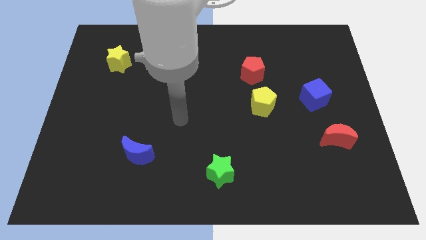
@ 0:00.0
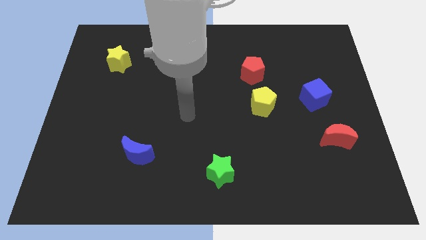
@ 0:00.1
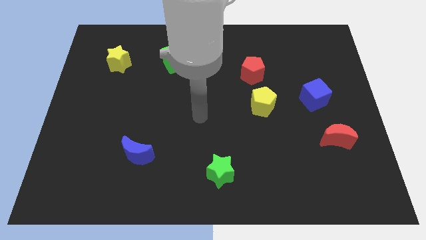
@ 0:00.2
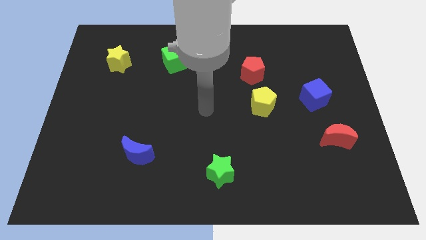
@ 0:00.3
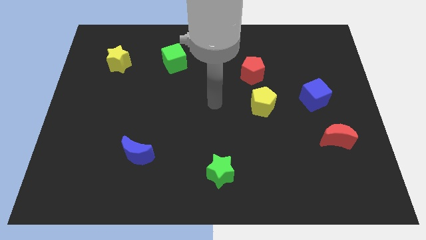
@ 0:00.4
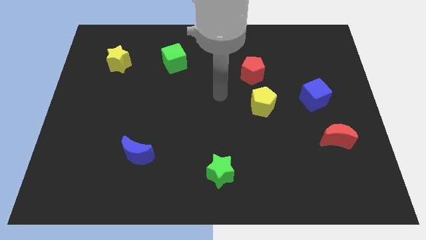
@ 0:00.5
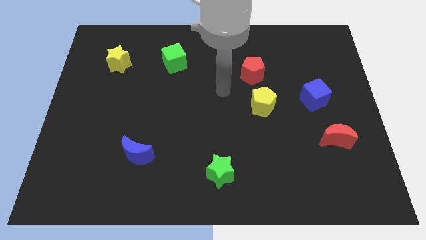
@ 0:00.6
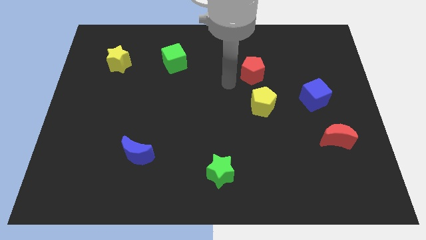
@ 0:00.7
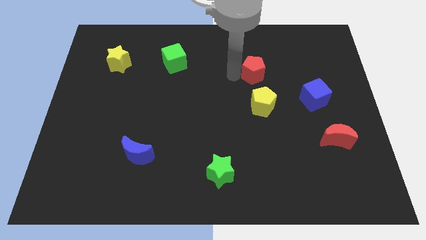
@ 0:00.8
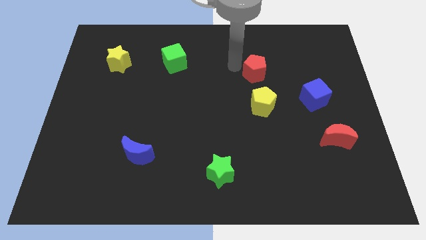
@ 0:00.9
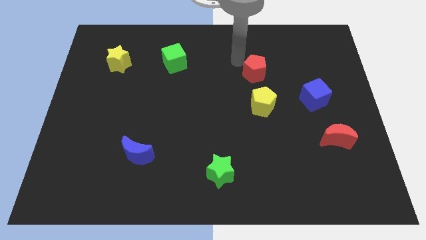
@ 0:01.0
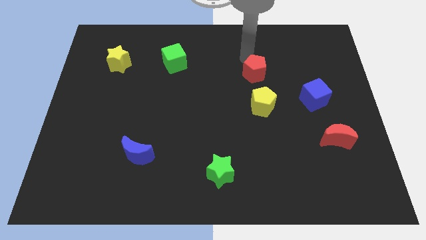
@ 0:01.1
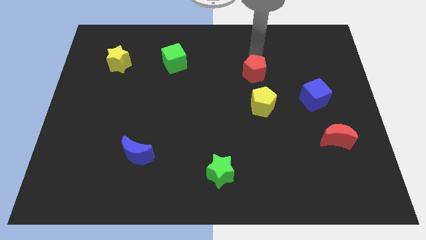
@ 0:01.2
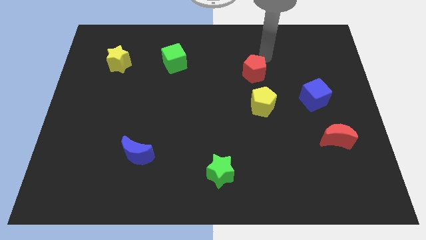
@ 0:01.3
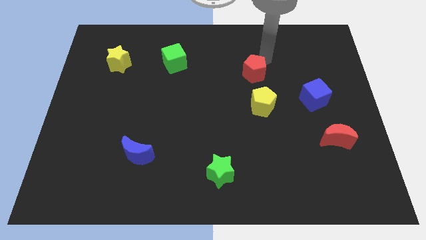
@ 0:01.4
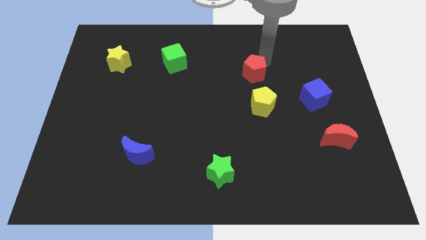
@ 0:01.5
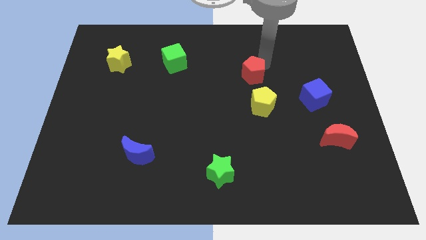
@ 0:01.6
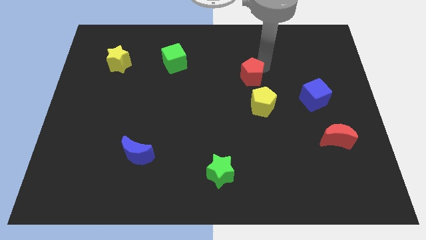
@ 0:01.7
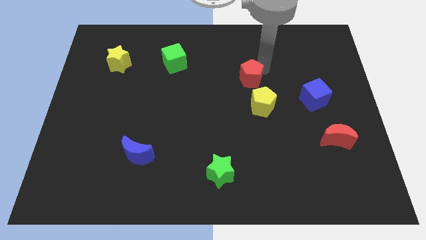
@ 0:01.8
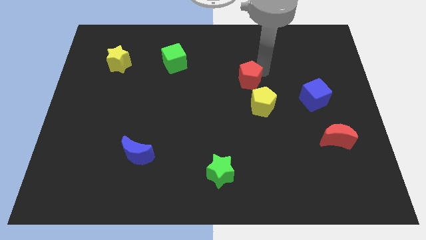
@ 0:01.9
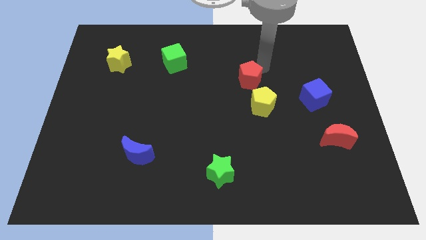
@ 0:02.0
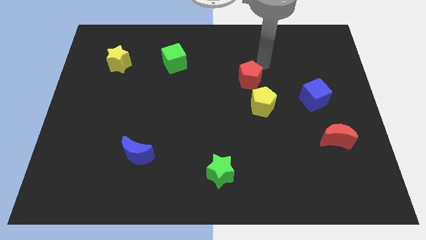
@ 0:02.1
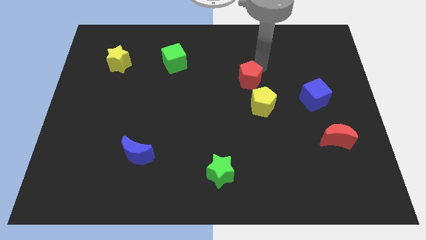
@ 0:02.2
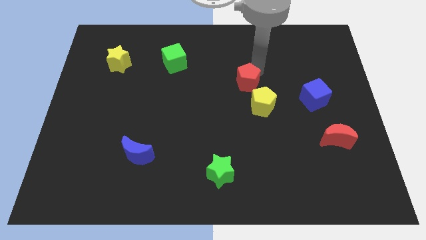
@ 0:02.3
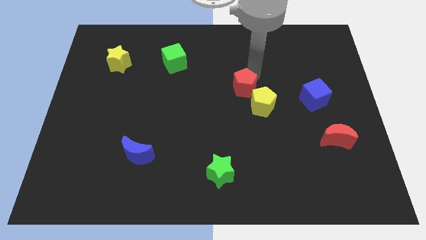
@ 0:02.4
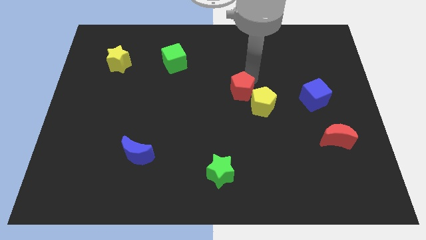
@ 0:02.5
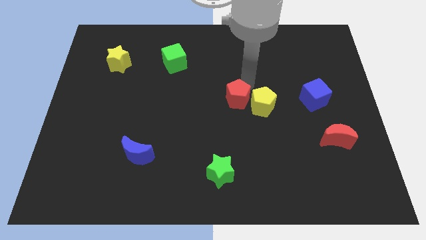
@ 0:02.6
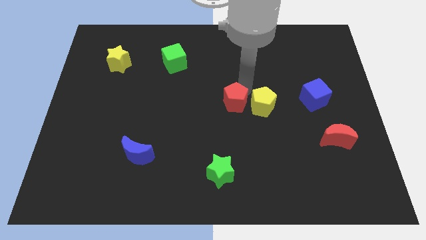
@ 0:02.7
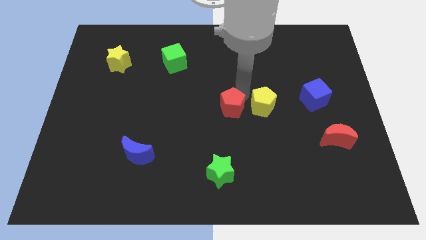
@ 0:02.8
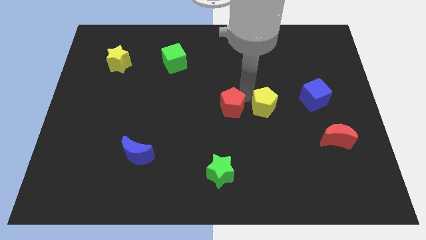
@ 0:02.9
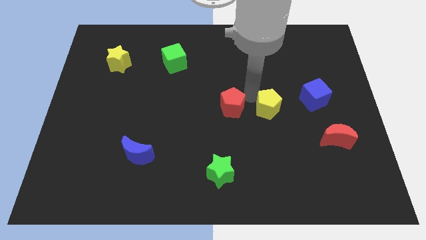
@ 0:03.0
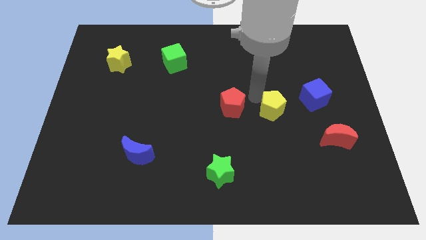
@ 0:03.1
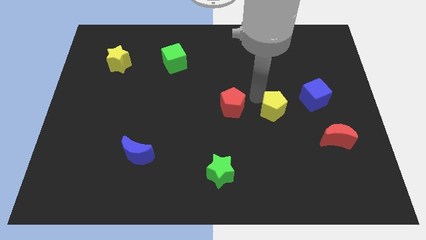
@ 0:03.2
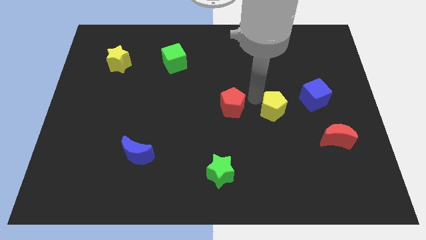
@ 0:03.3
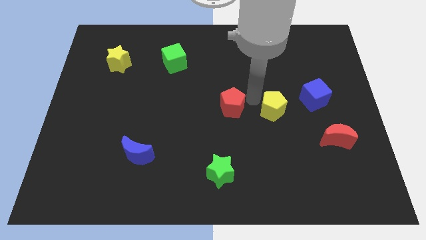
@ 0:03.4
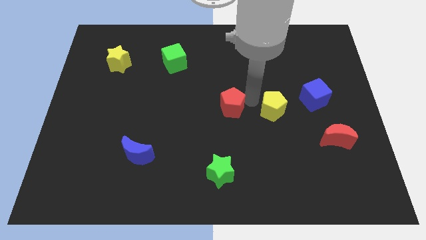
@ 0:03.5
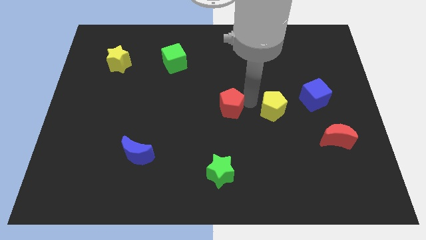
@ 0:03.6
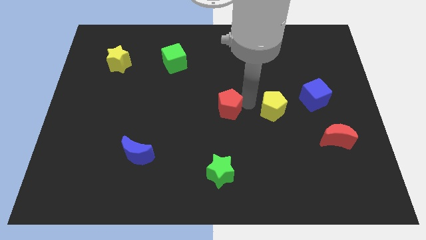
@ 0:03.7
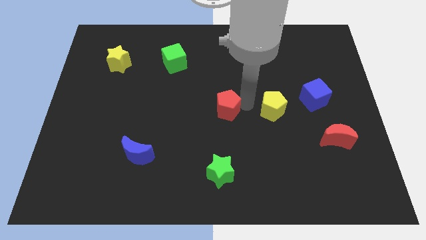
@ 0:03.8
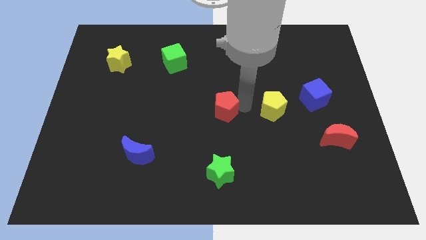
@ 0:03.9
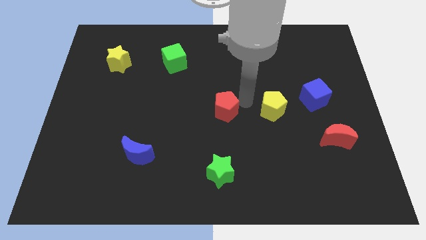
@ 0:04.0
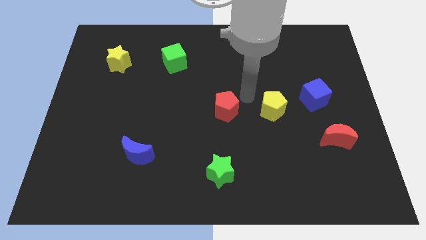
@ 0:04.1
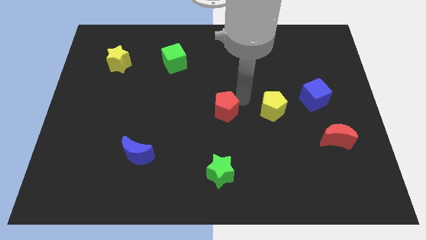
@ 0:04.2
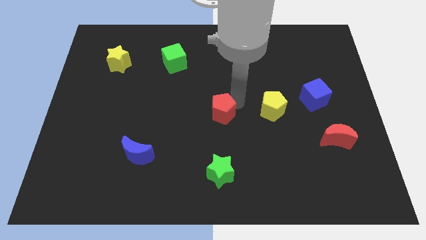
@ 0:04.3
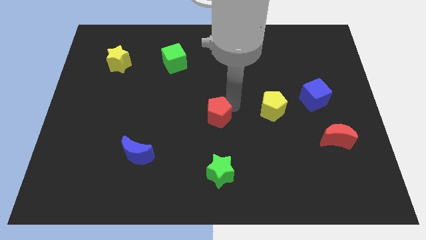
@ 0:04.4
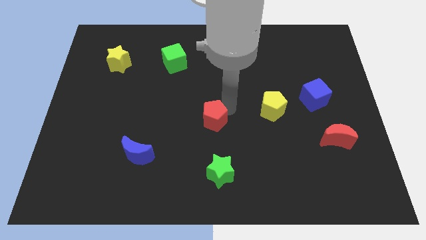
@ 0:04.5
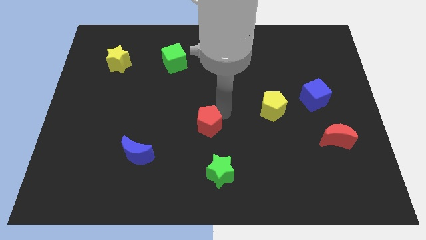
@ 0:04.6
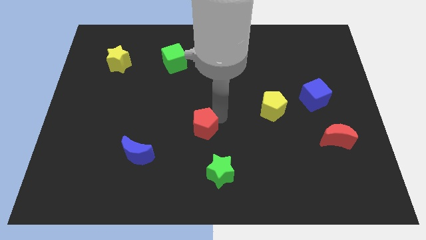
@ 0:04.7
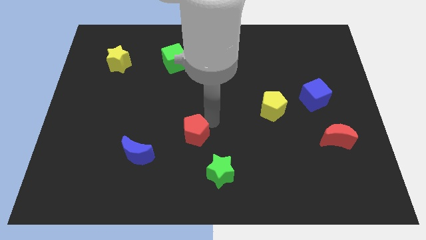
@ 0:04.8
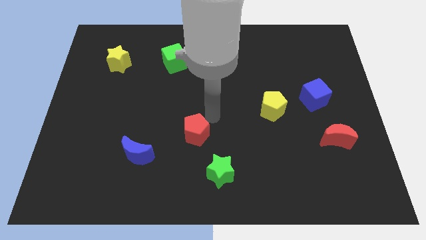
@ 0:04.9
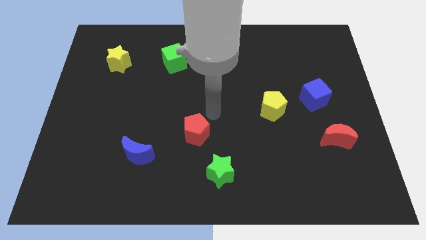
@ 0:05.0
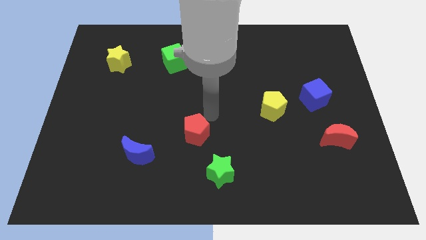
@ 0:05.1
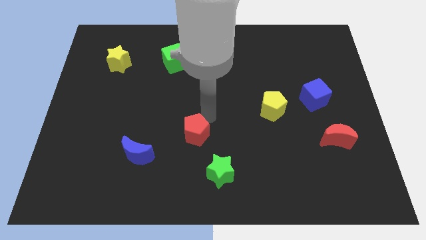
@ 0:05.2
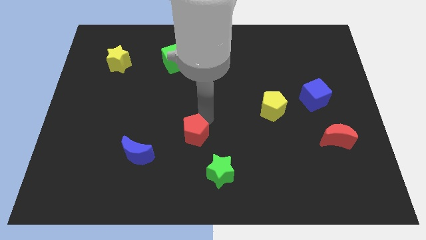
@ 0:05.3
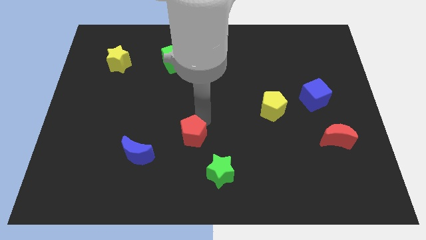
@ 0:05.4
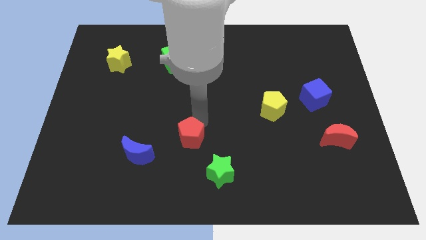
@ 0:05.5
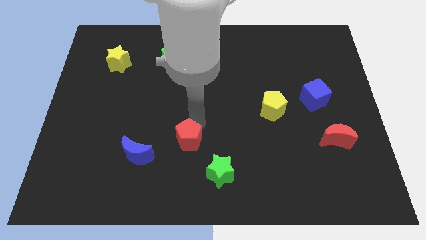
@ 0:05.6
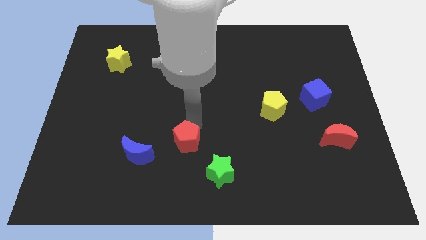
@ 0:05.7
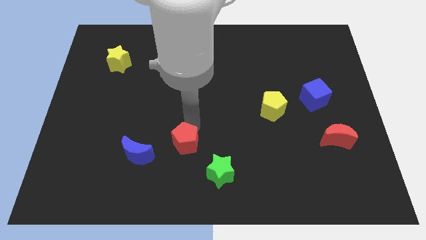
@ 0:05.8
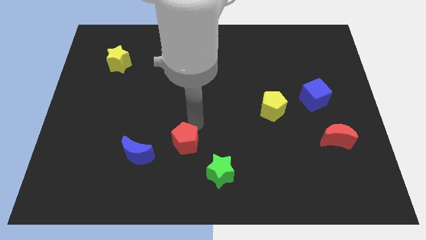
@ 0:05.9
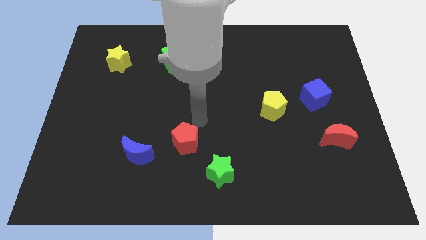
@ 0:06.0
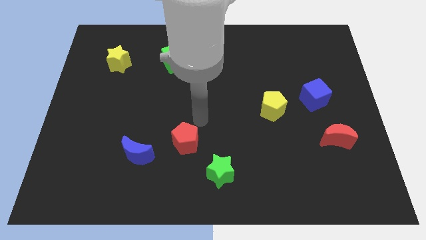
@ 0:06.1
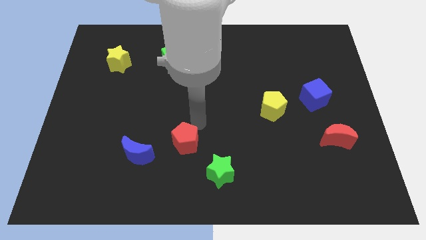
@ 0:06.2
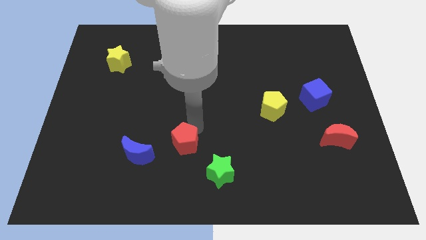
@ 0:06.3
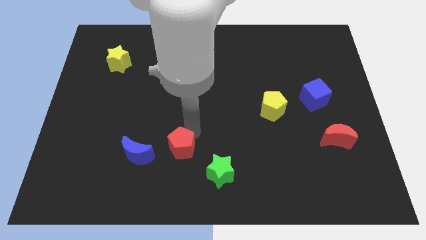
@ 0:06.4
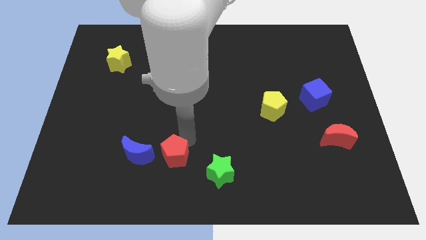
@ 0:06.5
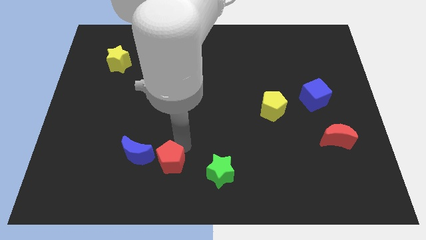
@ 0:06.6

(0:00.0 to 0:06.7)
push the red pentagon to the bottom right side of the blue moon
